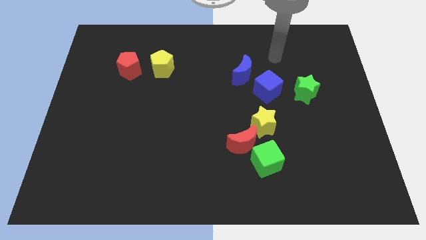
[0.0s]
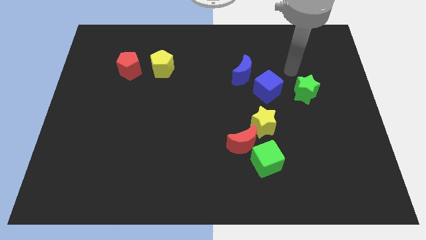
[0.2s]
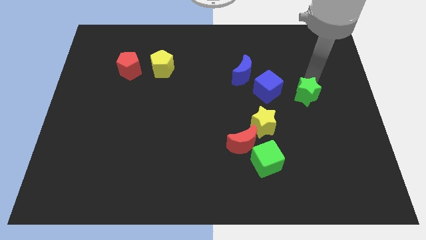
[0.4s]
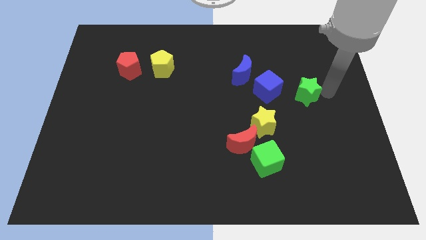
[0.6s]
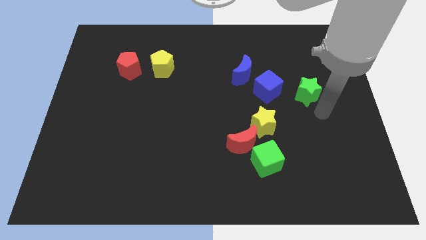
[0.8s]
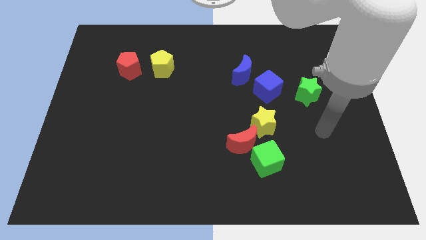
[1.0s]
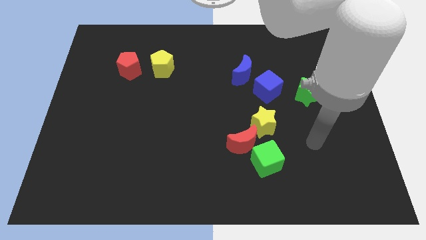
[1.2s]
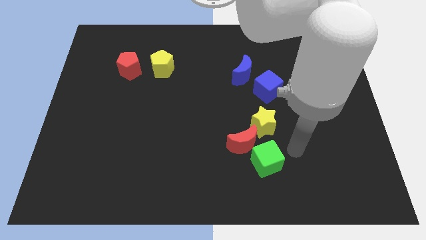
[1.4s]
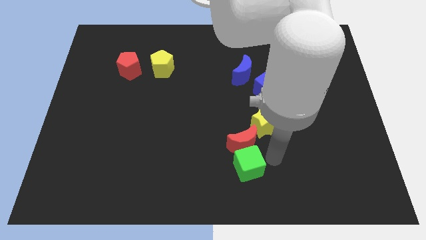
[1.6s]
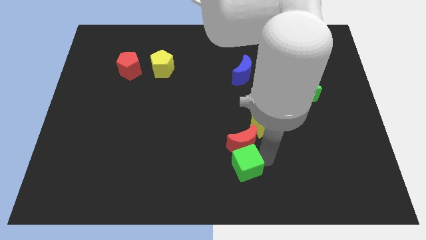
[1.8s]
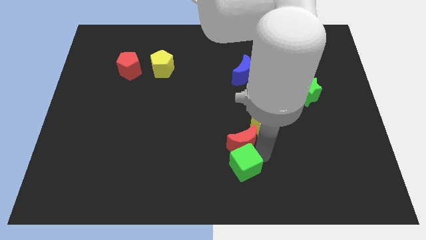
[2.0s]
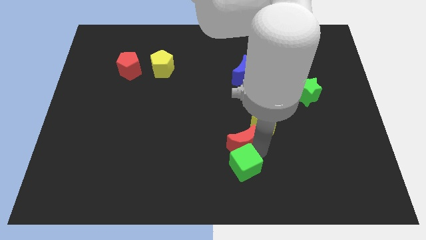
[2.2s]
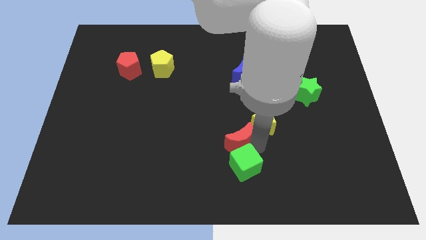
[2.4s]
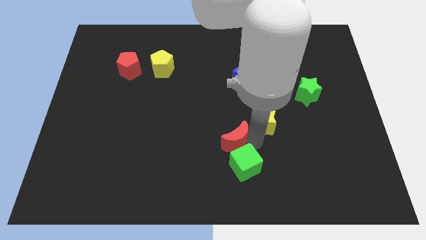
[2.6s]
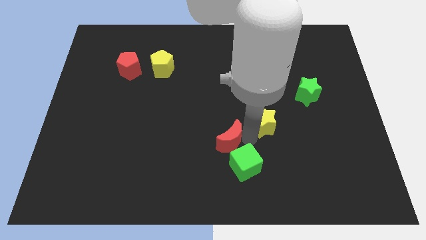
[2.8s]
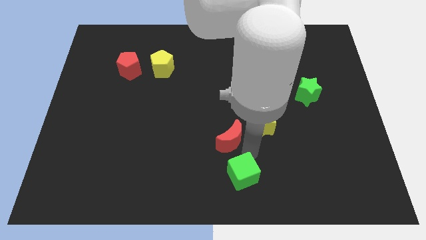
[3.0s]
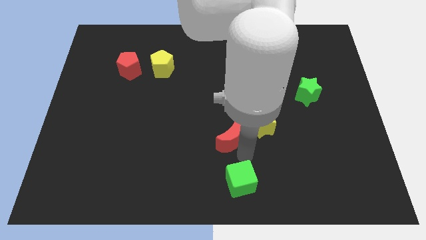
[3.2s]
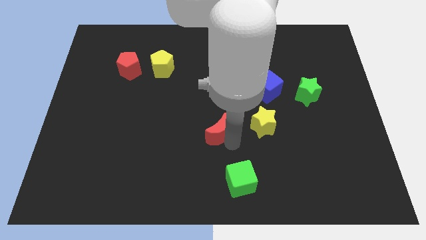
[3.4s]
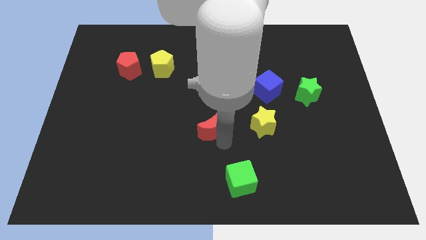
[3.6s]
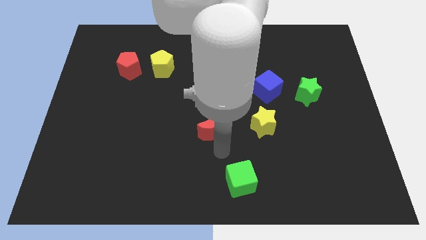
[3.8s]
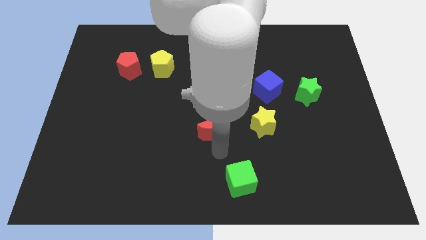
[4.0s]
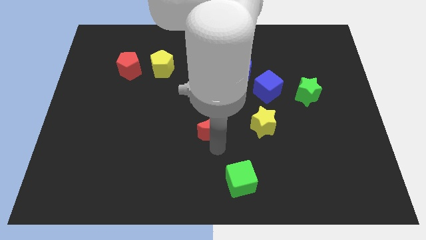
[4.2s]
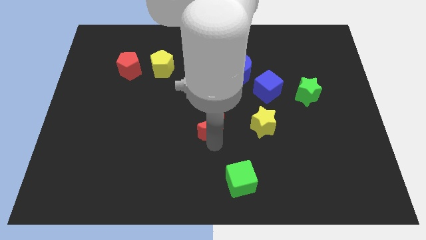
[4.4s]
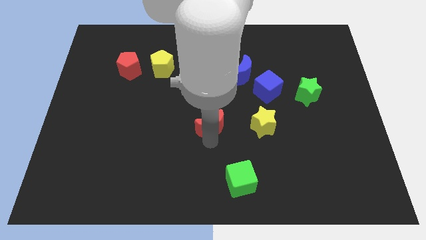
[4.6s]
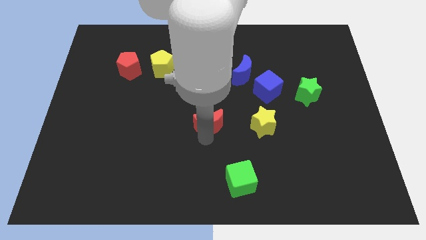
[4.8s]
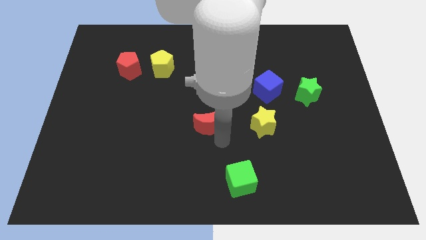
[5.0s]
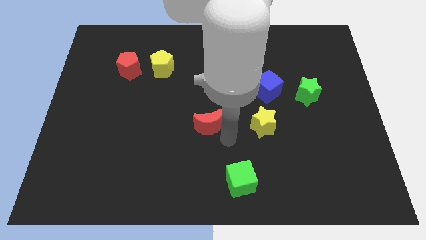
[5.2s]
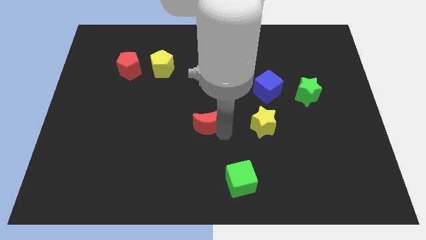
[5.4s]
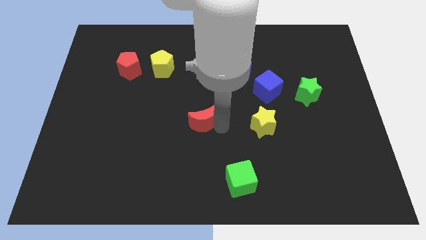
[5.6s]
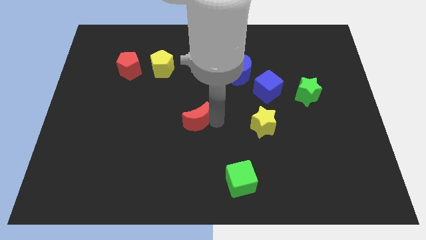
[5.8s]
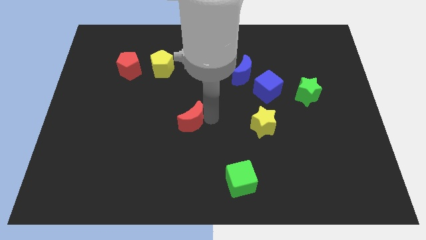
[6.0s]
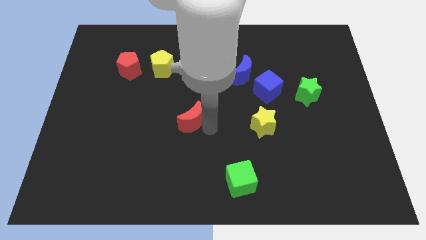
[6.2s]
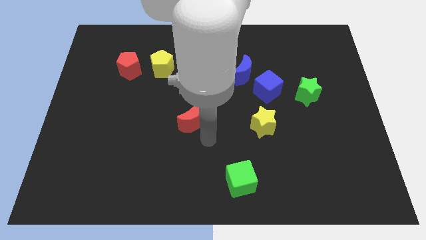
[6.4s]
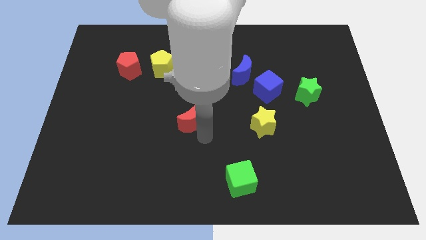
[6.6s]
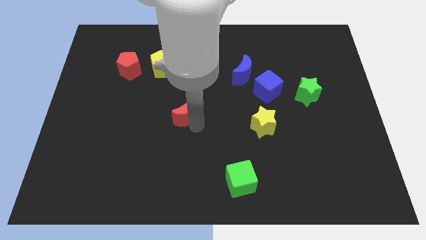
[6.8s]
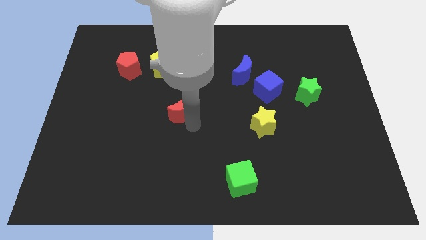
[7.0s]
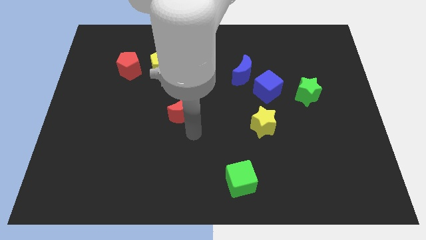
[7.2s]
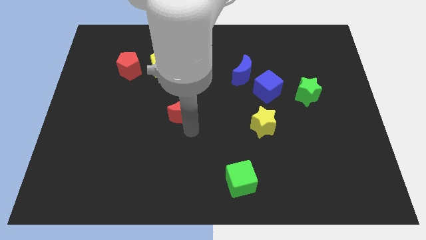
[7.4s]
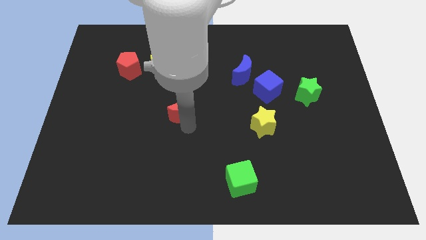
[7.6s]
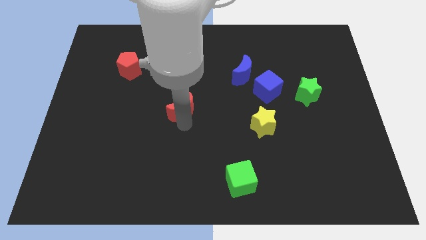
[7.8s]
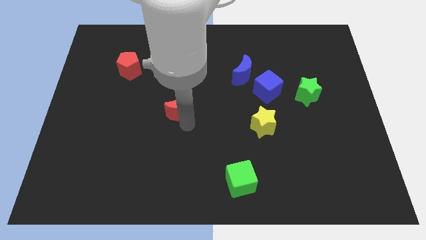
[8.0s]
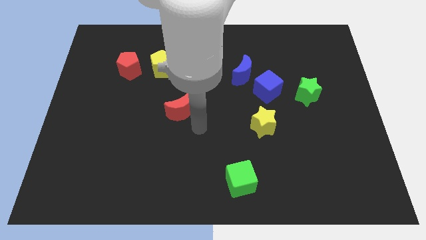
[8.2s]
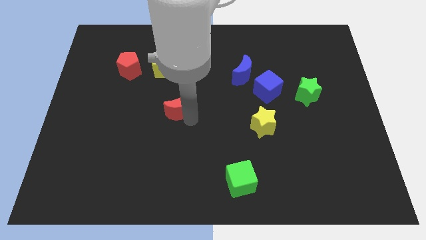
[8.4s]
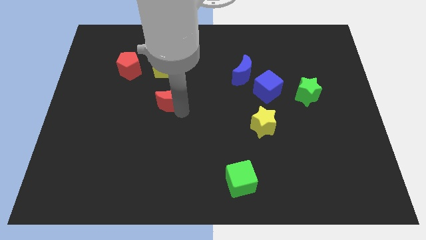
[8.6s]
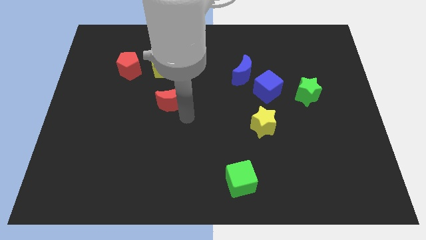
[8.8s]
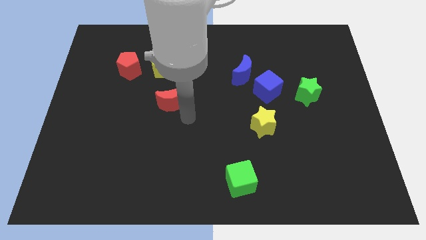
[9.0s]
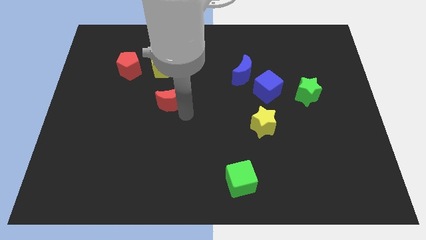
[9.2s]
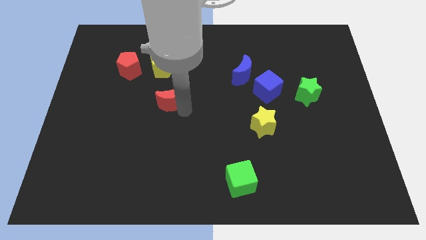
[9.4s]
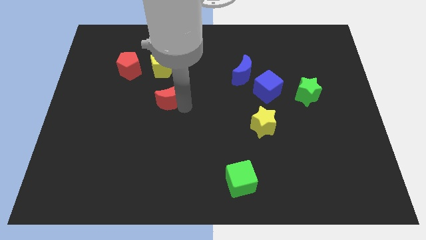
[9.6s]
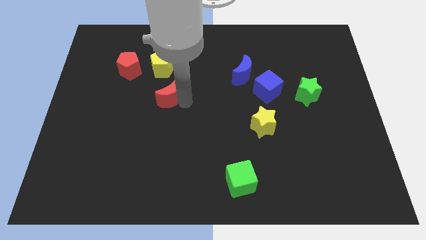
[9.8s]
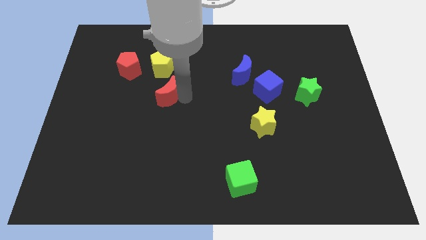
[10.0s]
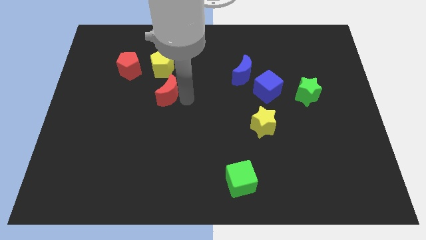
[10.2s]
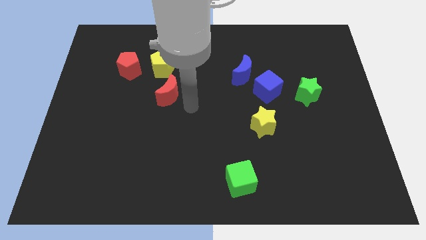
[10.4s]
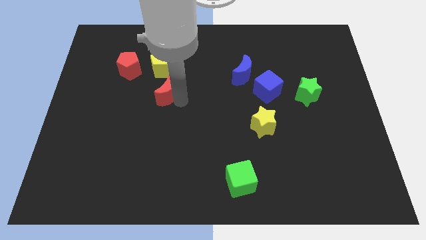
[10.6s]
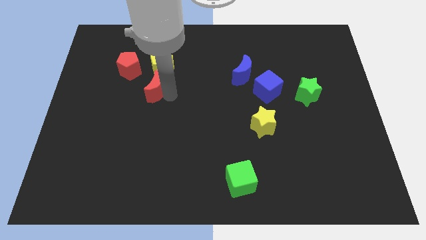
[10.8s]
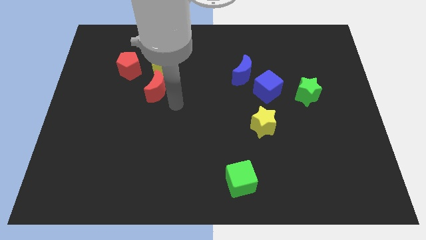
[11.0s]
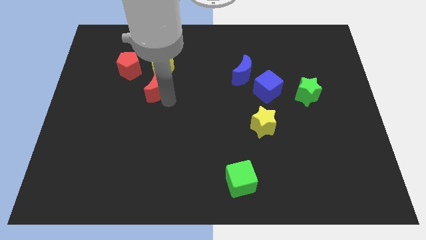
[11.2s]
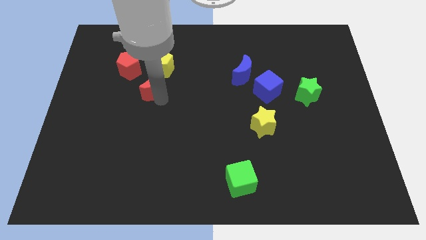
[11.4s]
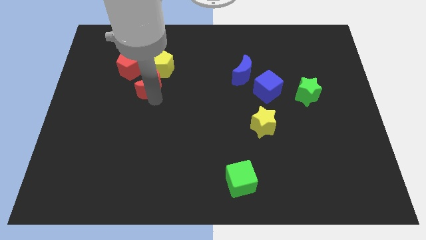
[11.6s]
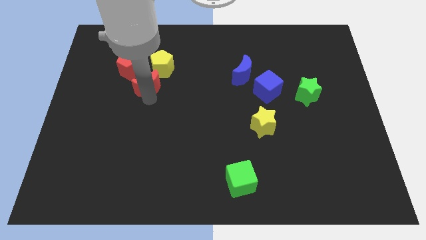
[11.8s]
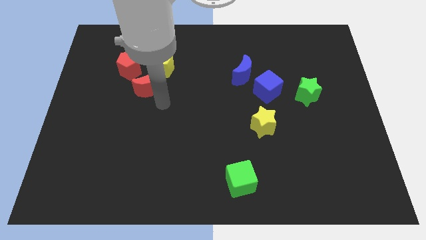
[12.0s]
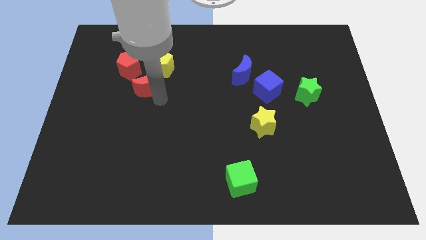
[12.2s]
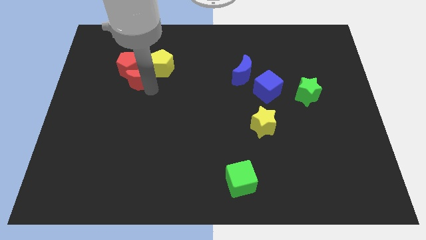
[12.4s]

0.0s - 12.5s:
put the red moon next to the red pentagon

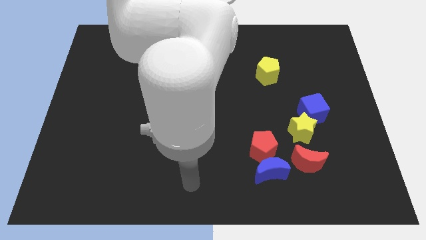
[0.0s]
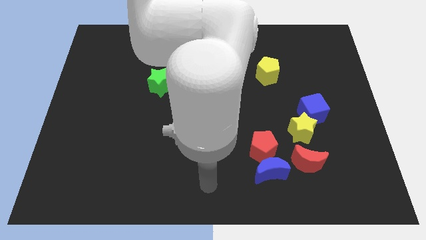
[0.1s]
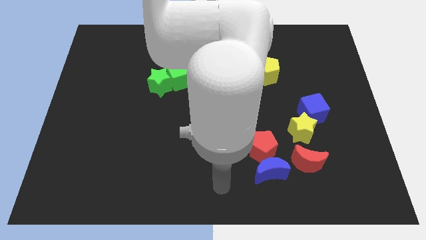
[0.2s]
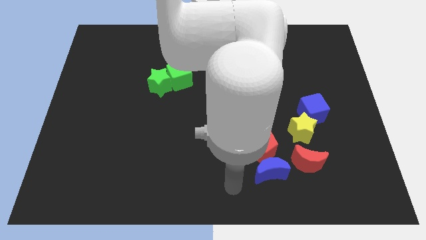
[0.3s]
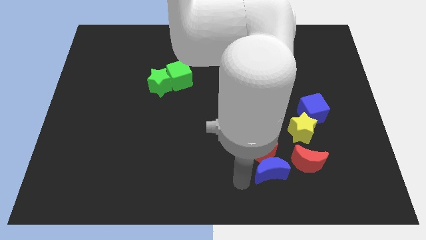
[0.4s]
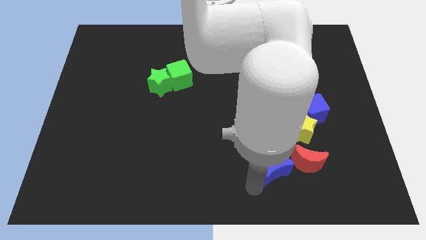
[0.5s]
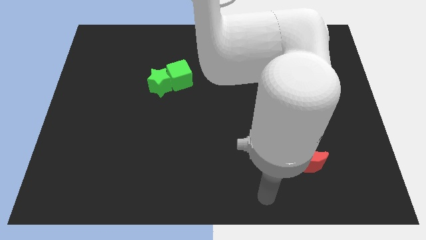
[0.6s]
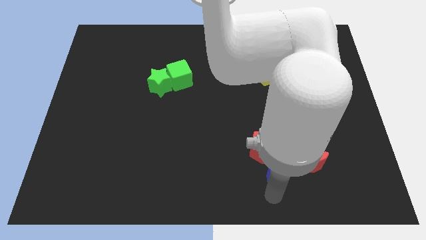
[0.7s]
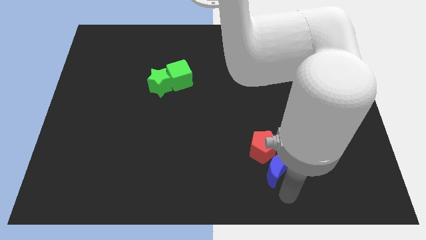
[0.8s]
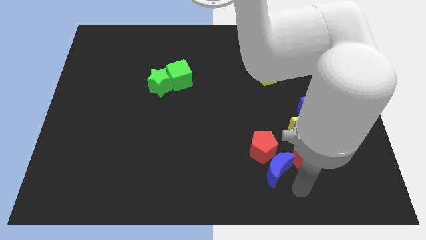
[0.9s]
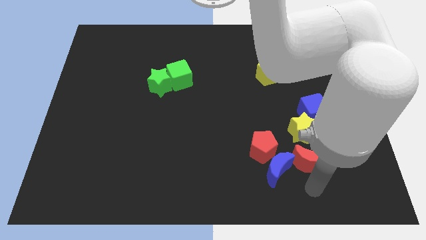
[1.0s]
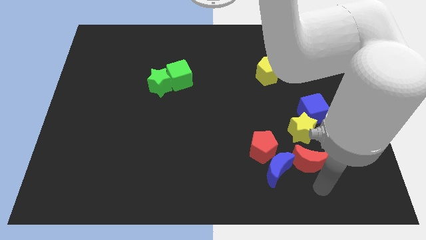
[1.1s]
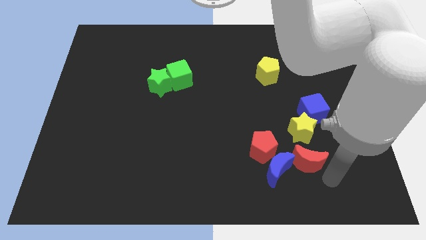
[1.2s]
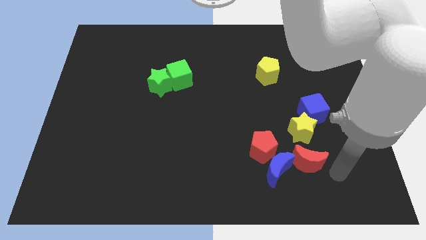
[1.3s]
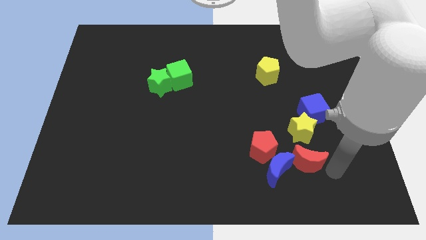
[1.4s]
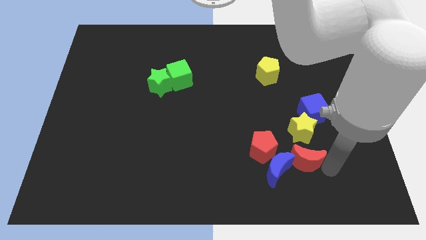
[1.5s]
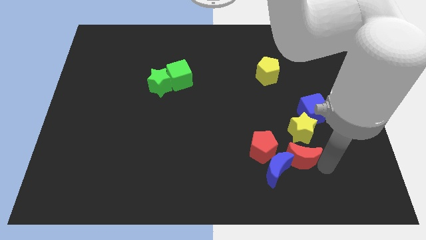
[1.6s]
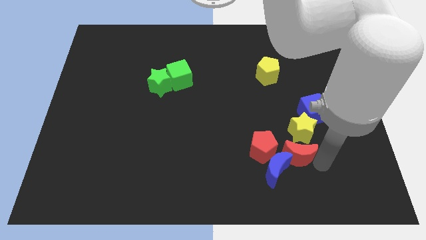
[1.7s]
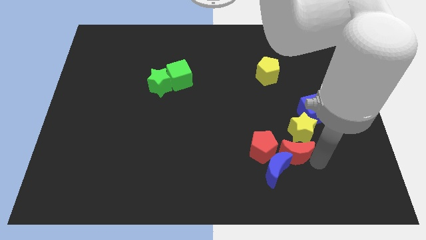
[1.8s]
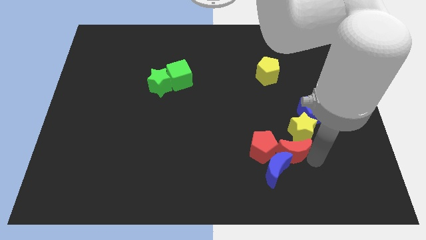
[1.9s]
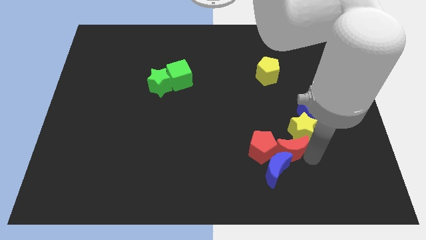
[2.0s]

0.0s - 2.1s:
slide the red moon next to the red pentagon
